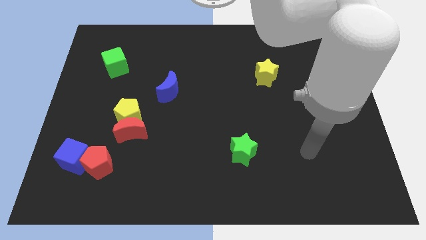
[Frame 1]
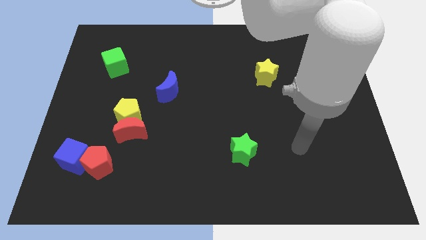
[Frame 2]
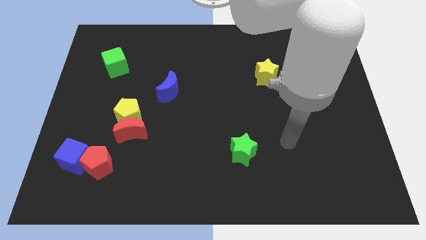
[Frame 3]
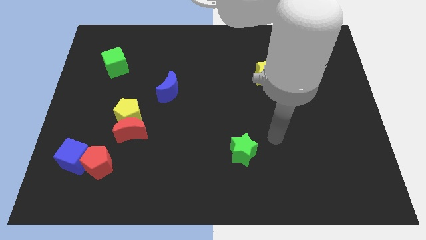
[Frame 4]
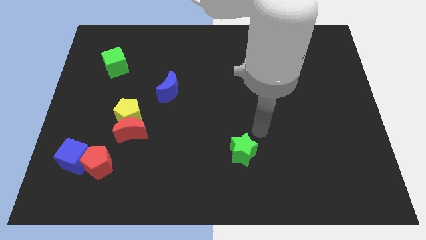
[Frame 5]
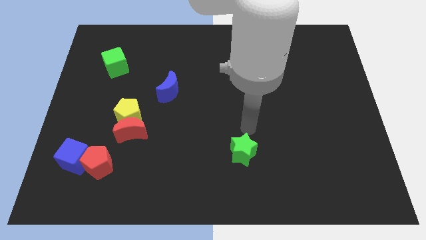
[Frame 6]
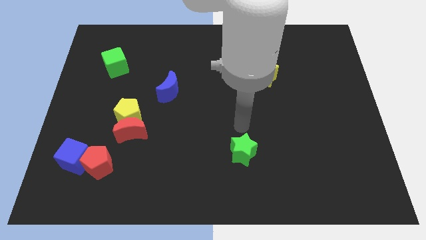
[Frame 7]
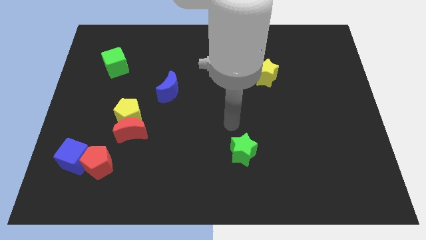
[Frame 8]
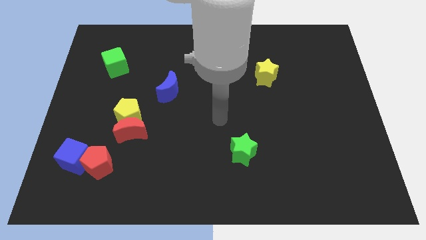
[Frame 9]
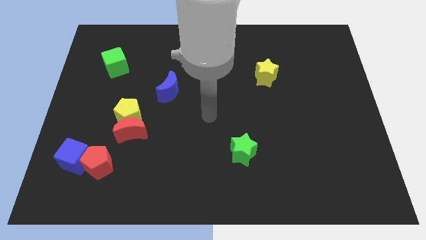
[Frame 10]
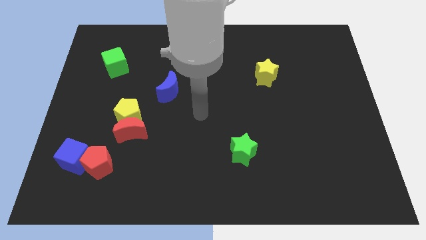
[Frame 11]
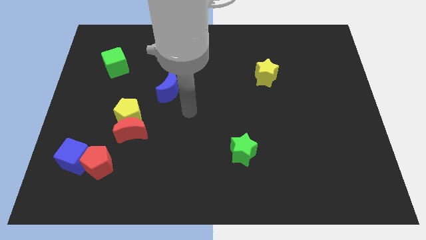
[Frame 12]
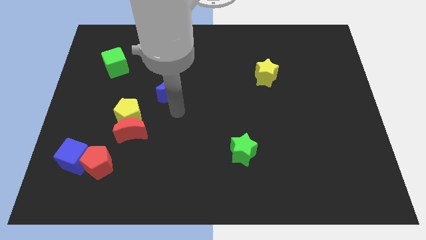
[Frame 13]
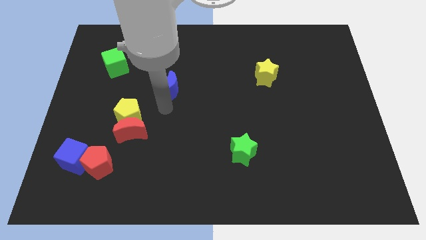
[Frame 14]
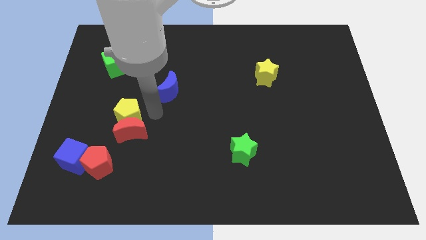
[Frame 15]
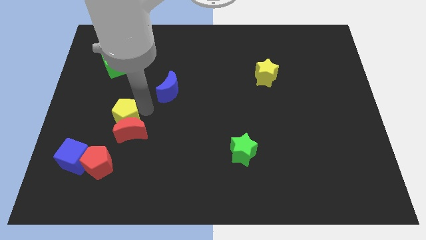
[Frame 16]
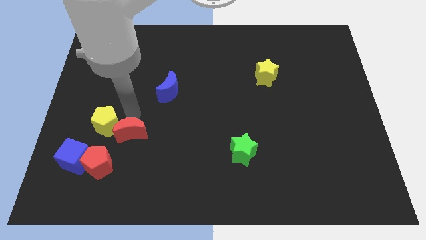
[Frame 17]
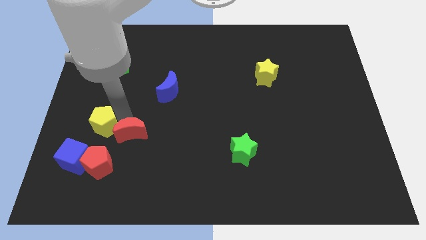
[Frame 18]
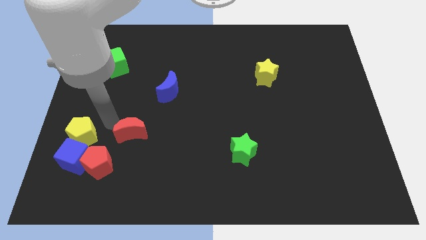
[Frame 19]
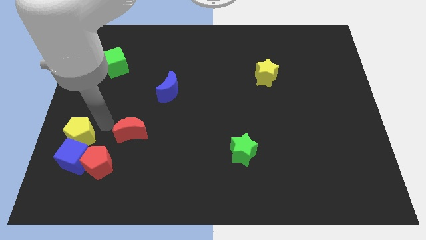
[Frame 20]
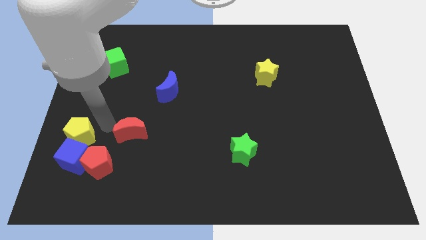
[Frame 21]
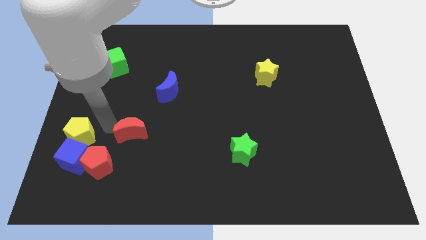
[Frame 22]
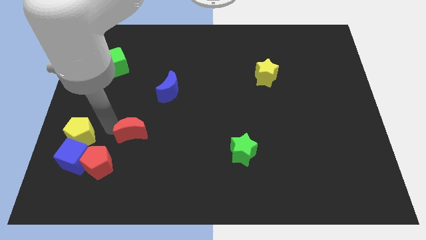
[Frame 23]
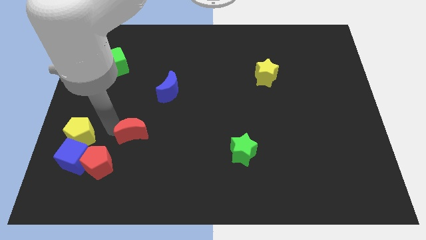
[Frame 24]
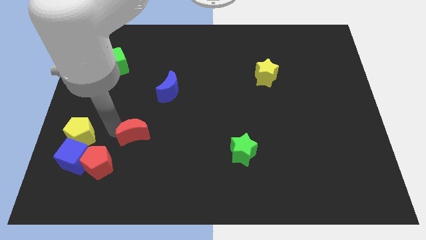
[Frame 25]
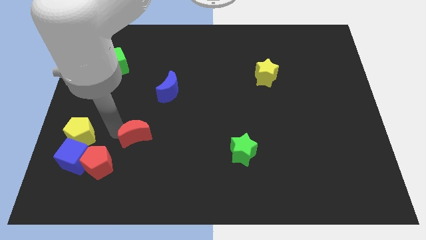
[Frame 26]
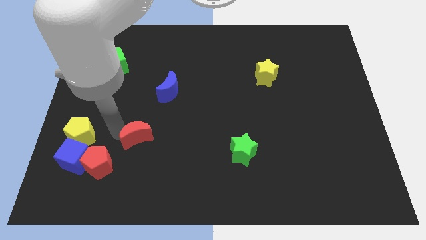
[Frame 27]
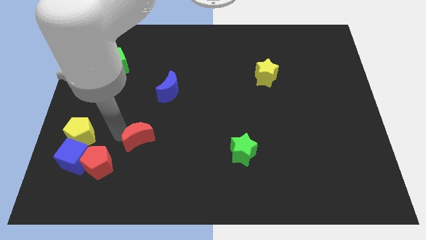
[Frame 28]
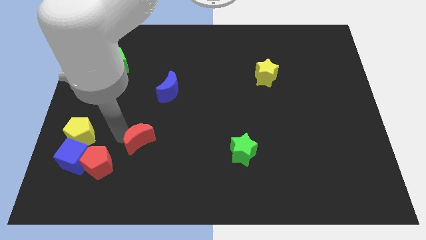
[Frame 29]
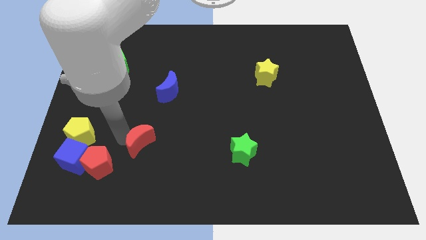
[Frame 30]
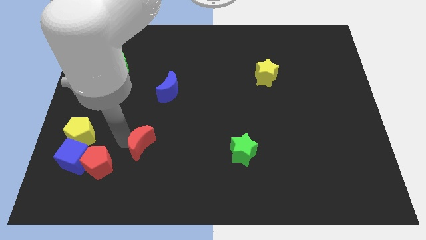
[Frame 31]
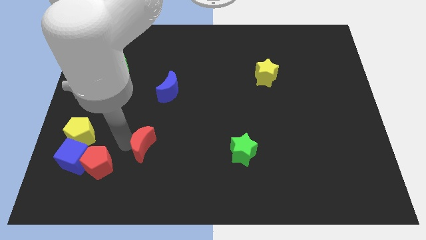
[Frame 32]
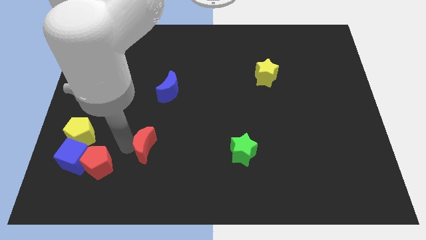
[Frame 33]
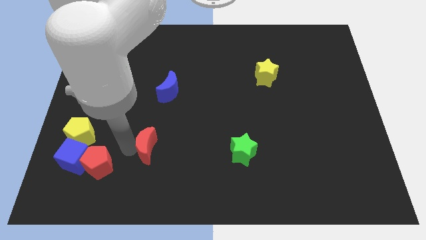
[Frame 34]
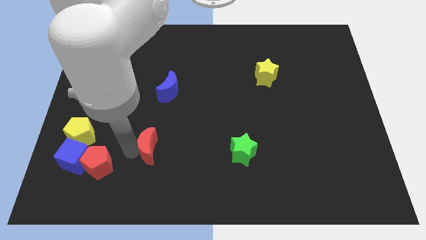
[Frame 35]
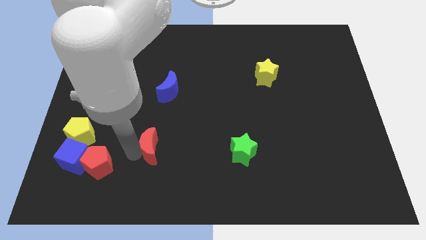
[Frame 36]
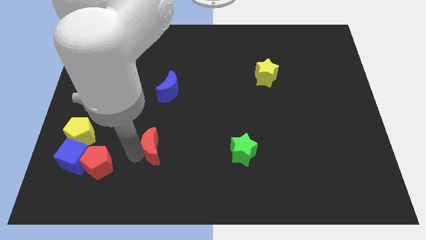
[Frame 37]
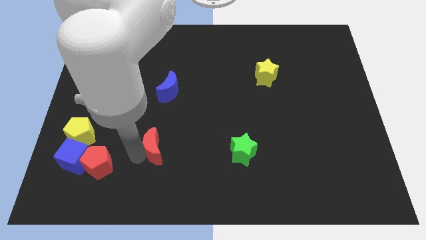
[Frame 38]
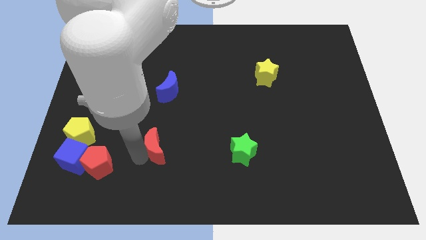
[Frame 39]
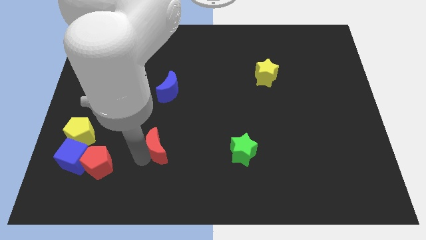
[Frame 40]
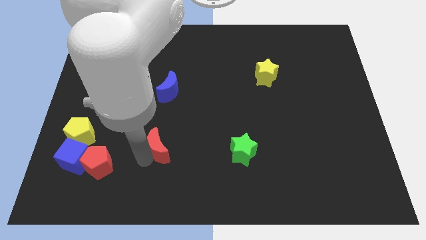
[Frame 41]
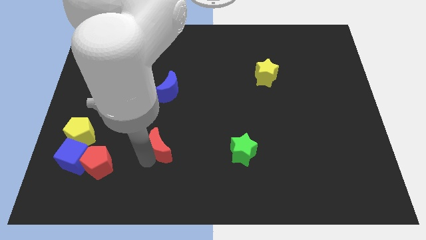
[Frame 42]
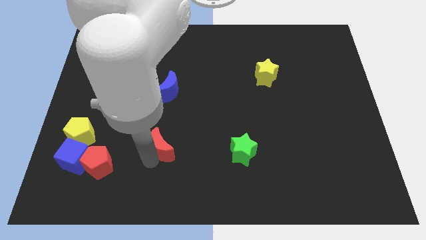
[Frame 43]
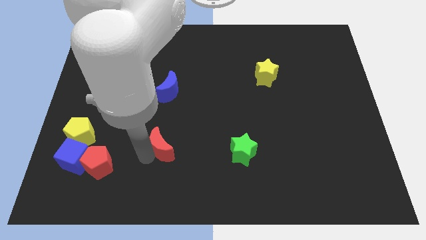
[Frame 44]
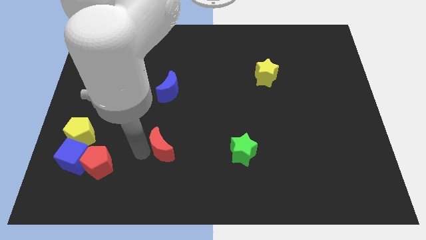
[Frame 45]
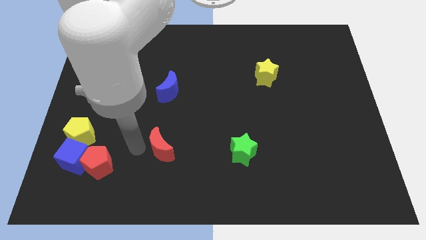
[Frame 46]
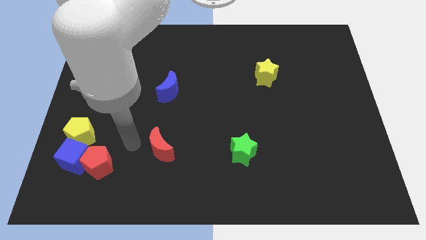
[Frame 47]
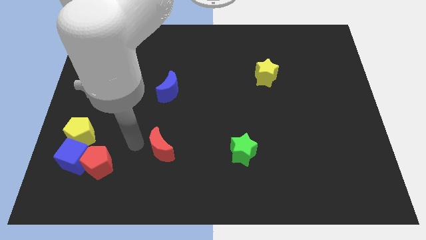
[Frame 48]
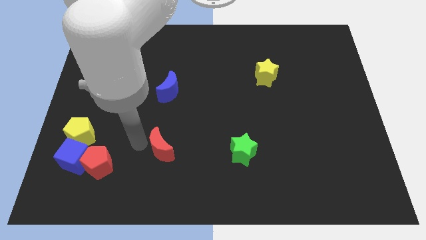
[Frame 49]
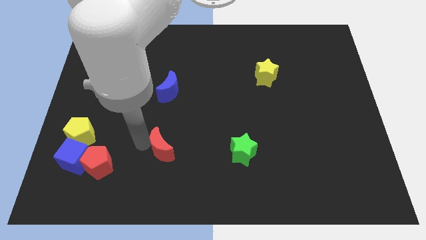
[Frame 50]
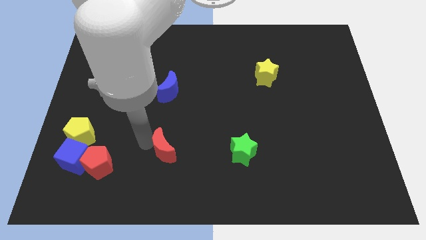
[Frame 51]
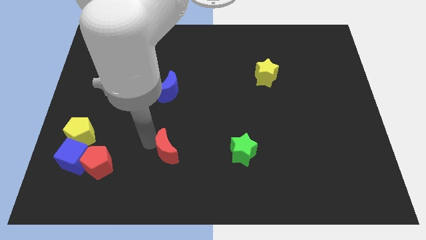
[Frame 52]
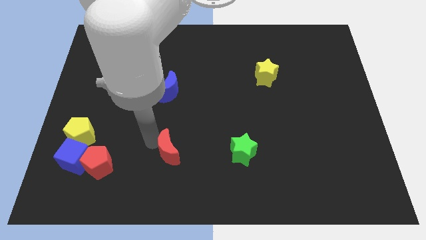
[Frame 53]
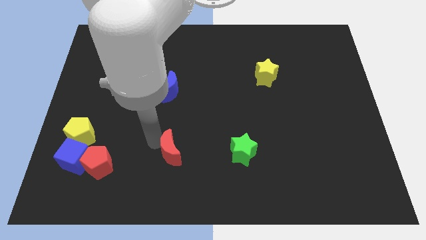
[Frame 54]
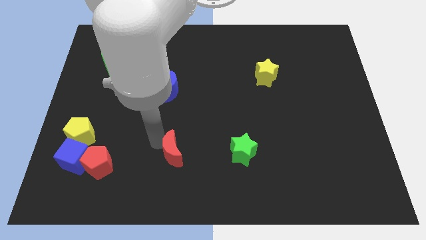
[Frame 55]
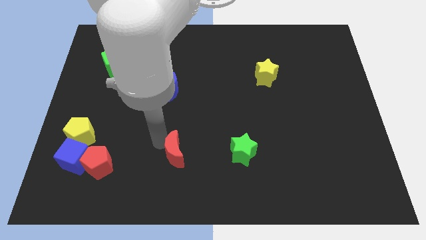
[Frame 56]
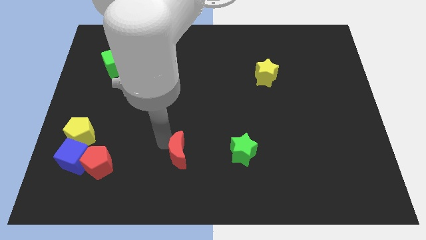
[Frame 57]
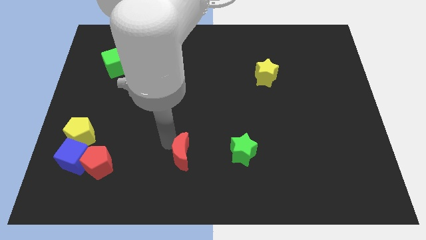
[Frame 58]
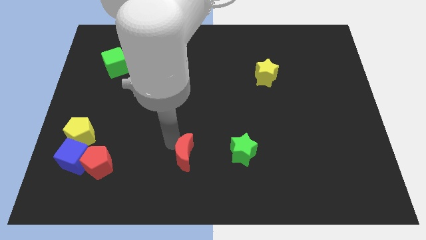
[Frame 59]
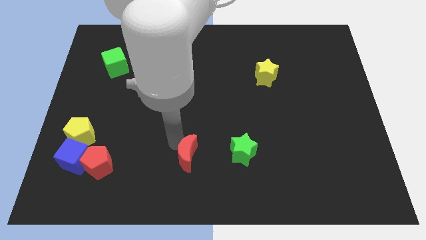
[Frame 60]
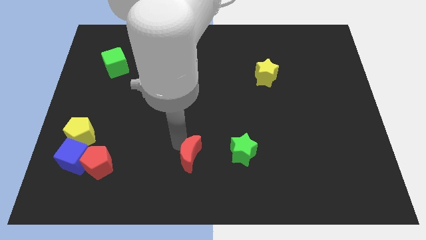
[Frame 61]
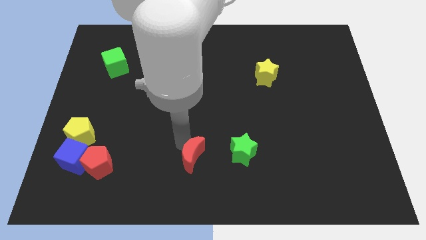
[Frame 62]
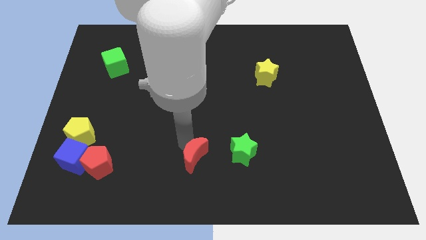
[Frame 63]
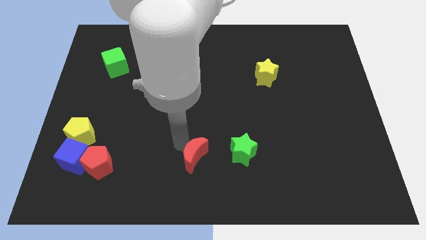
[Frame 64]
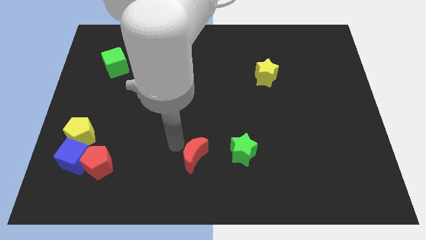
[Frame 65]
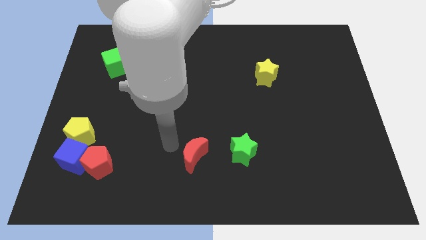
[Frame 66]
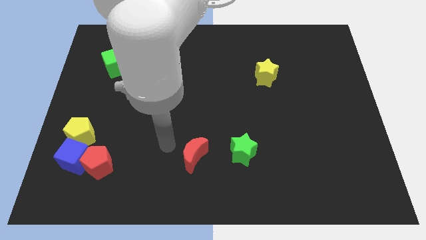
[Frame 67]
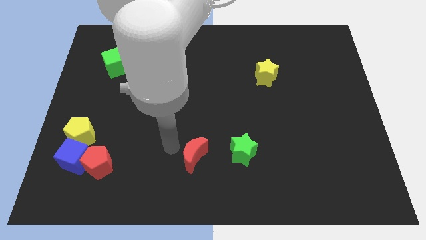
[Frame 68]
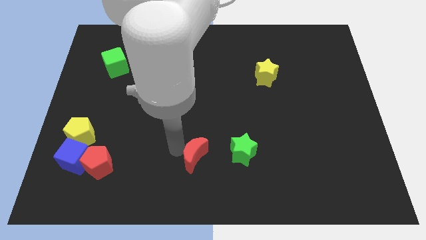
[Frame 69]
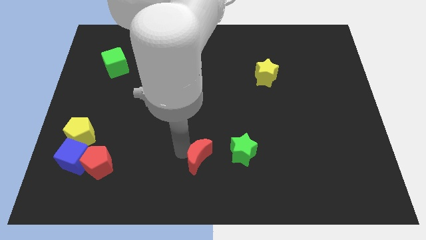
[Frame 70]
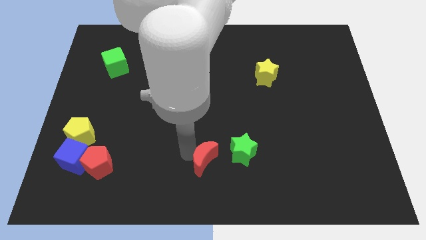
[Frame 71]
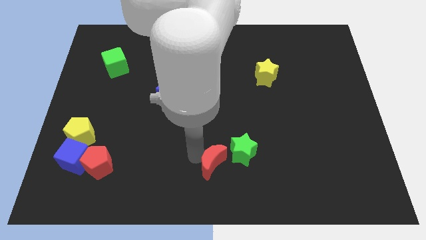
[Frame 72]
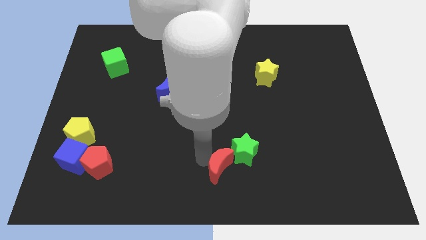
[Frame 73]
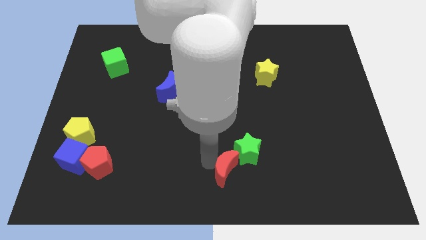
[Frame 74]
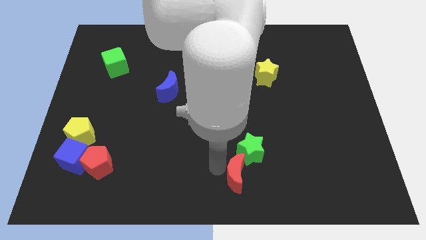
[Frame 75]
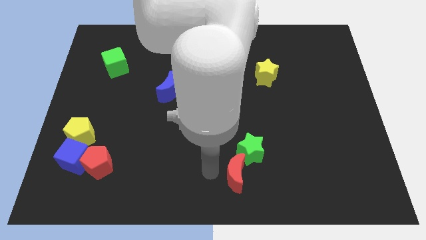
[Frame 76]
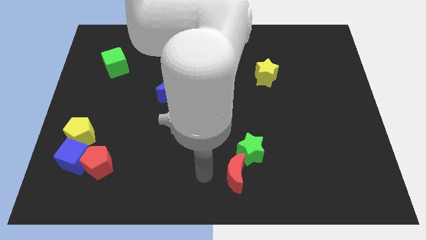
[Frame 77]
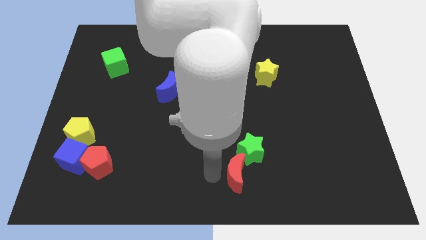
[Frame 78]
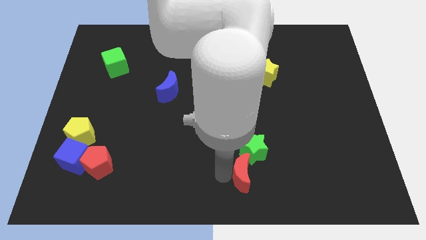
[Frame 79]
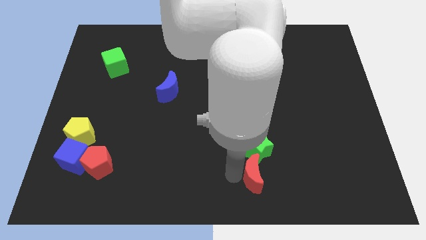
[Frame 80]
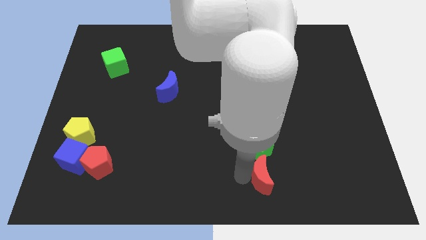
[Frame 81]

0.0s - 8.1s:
put the red moon diagonally down and to the right of the green star

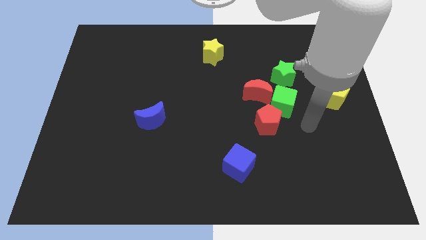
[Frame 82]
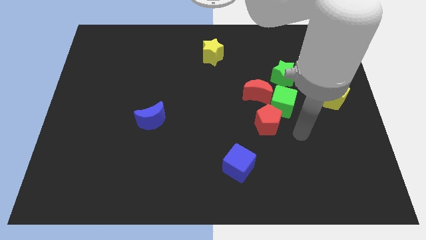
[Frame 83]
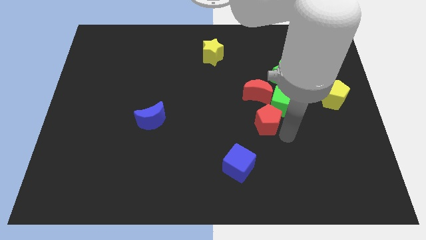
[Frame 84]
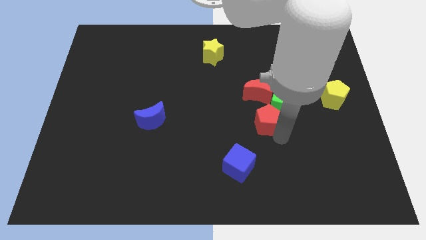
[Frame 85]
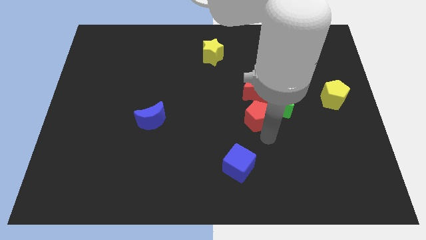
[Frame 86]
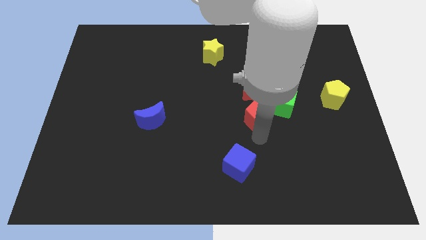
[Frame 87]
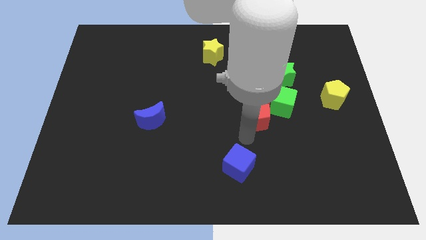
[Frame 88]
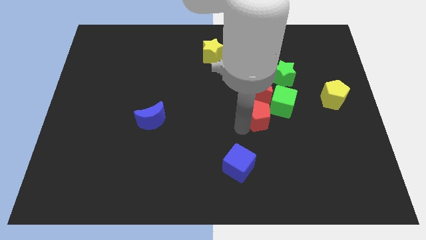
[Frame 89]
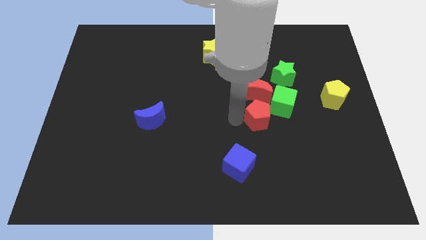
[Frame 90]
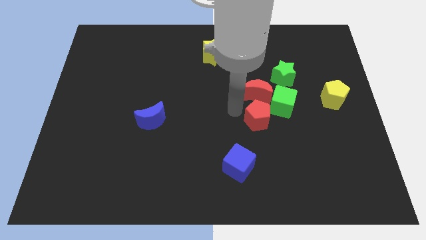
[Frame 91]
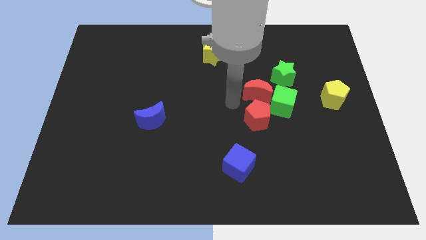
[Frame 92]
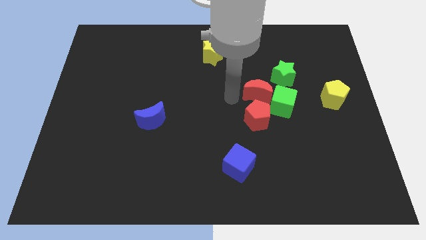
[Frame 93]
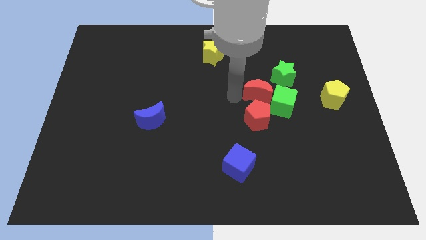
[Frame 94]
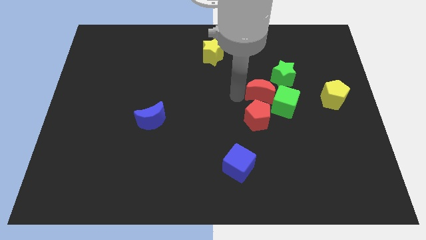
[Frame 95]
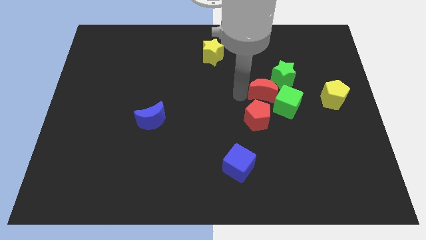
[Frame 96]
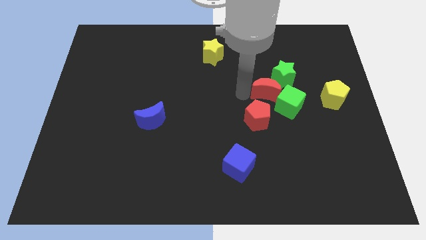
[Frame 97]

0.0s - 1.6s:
push the red moon to the bottom side of the green star
